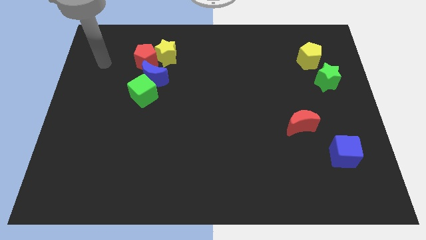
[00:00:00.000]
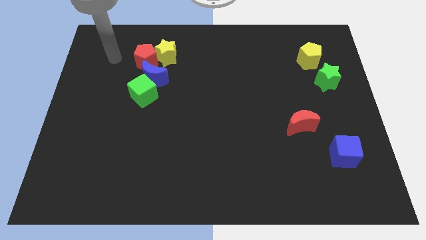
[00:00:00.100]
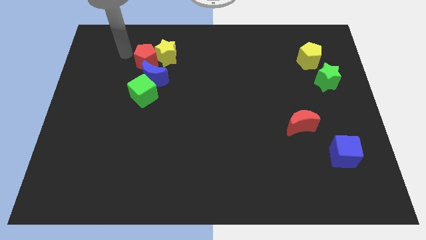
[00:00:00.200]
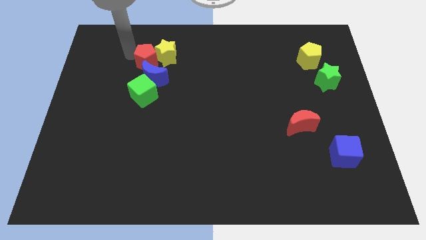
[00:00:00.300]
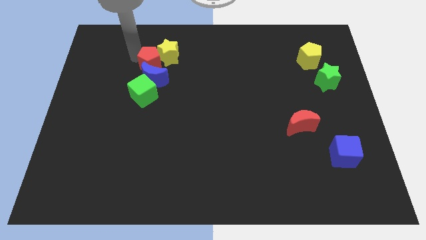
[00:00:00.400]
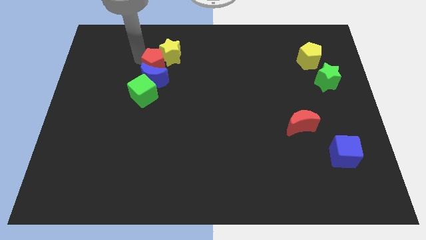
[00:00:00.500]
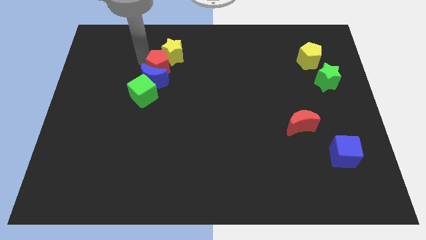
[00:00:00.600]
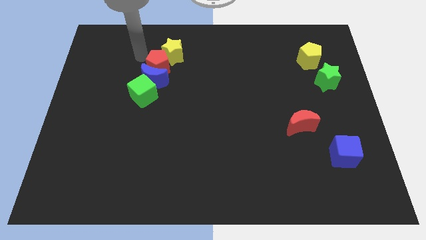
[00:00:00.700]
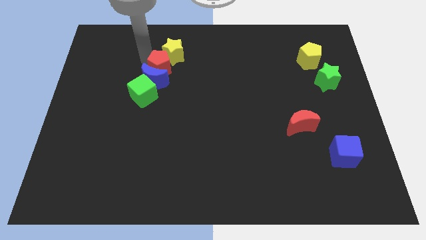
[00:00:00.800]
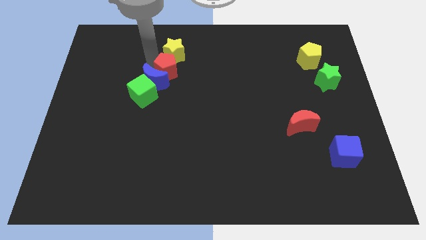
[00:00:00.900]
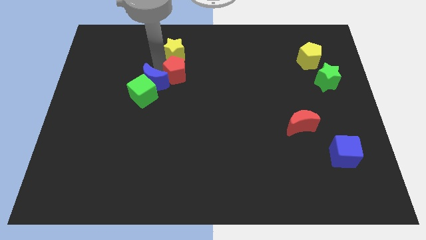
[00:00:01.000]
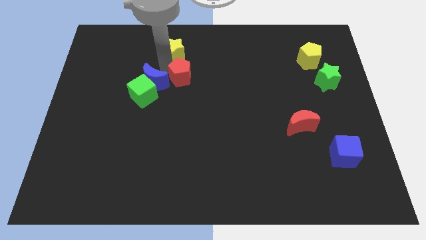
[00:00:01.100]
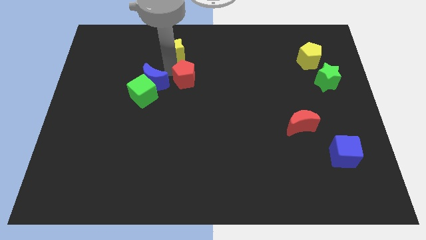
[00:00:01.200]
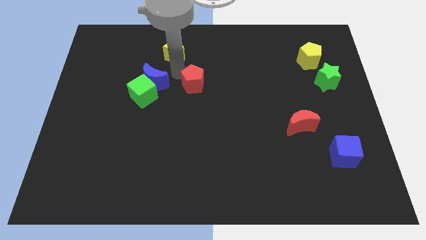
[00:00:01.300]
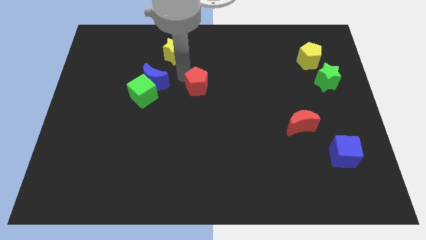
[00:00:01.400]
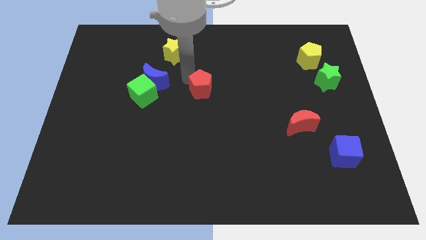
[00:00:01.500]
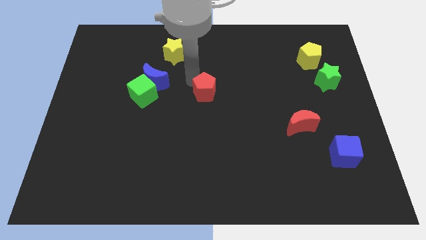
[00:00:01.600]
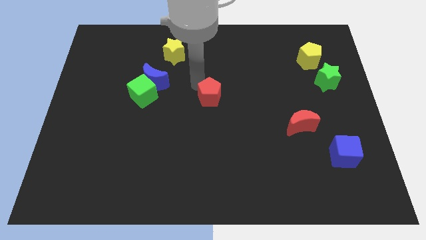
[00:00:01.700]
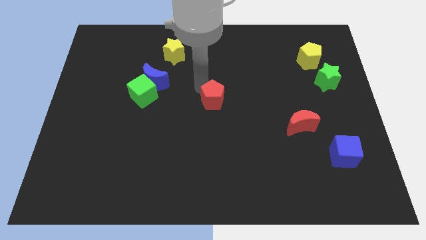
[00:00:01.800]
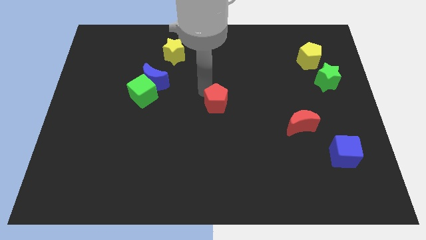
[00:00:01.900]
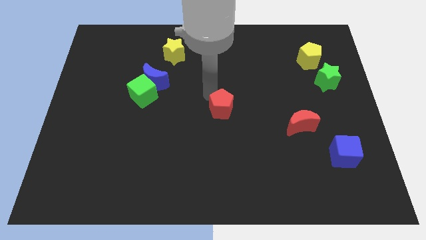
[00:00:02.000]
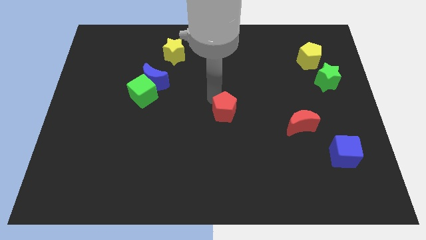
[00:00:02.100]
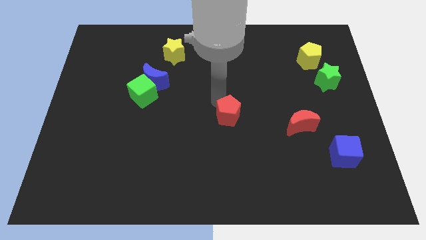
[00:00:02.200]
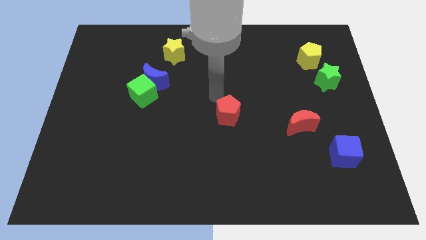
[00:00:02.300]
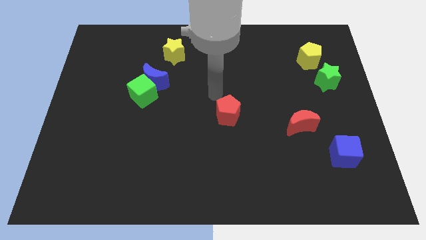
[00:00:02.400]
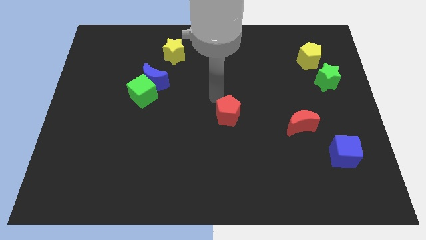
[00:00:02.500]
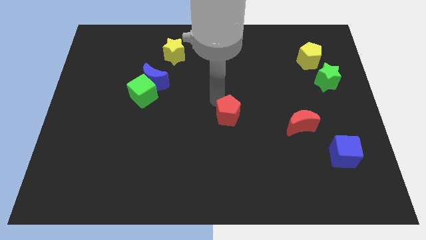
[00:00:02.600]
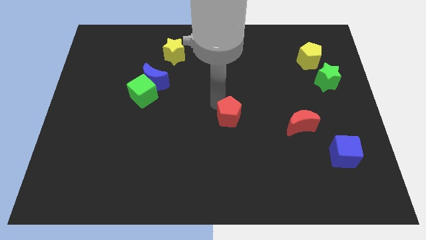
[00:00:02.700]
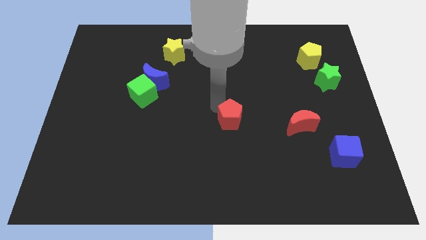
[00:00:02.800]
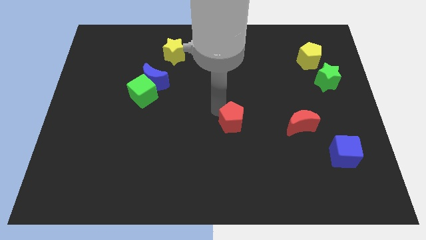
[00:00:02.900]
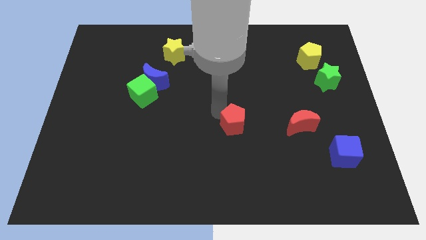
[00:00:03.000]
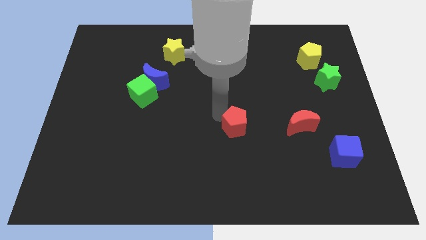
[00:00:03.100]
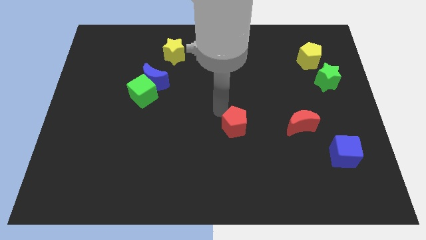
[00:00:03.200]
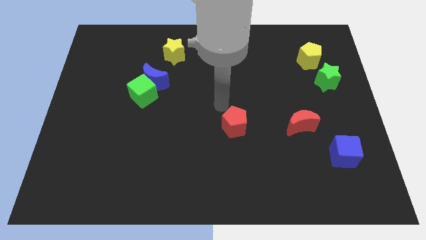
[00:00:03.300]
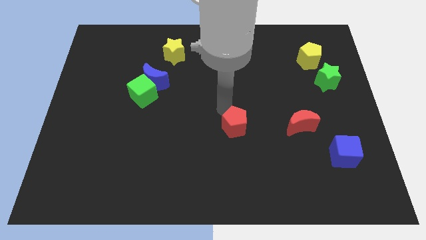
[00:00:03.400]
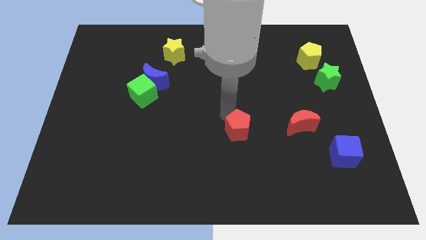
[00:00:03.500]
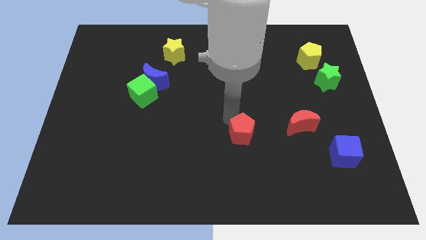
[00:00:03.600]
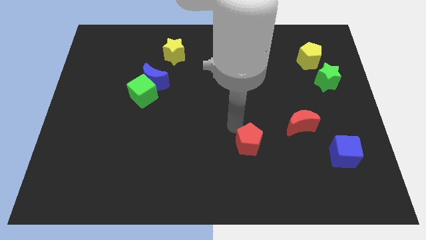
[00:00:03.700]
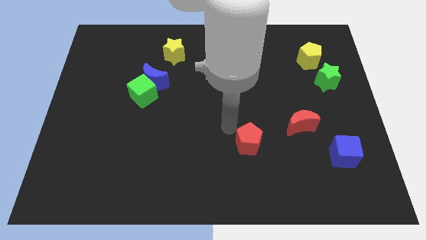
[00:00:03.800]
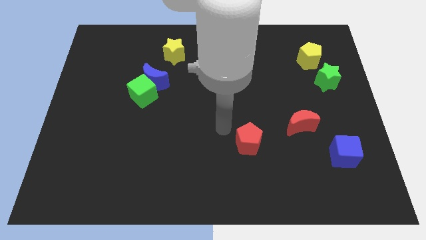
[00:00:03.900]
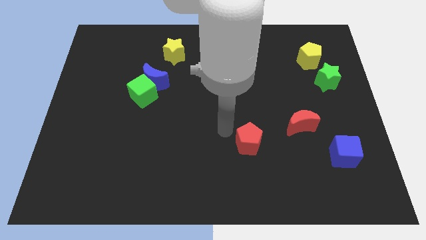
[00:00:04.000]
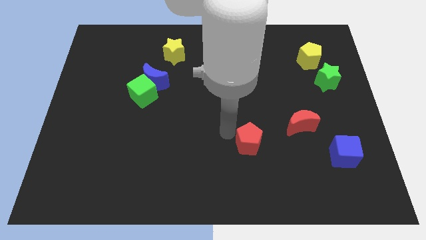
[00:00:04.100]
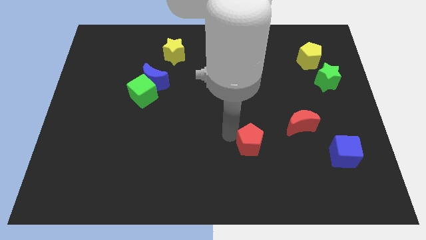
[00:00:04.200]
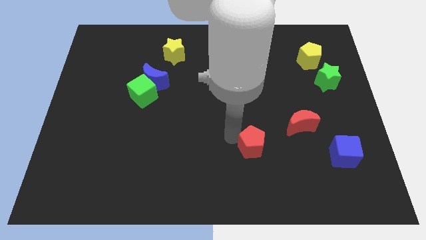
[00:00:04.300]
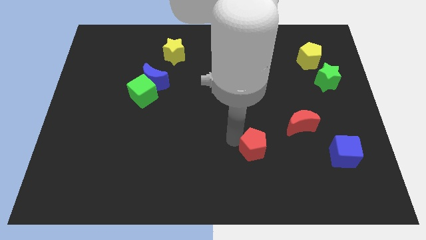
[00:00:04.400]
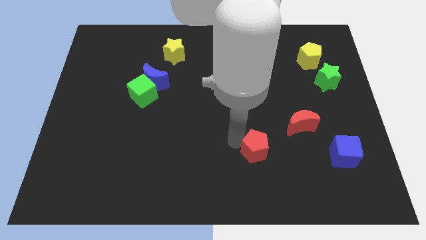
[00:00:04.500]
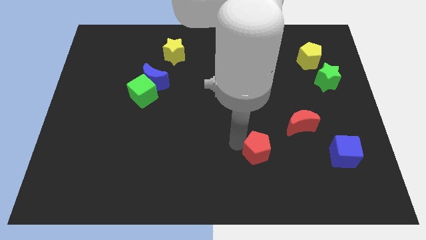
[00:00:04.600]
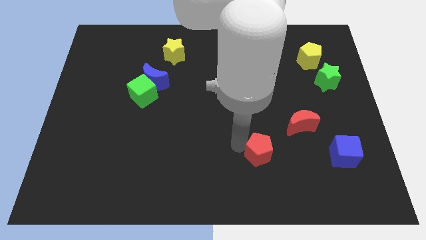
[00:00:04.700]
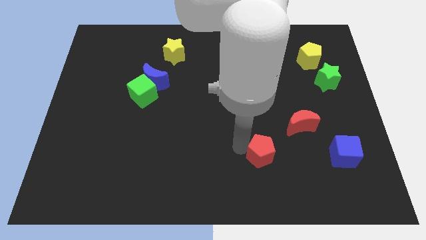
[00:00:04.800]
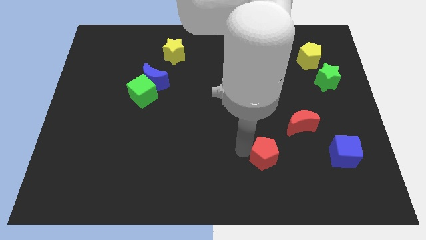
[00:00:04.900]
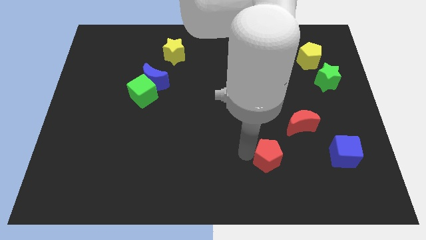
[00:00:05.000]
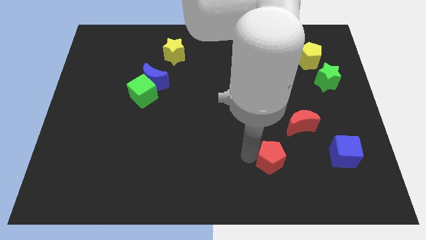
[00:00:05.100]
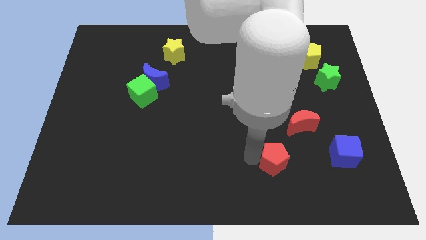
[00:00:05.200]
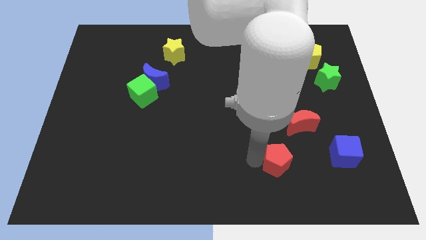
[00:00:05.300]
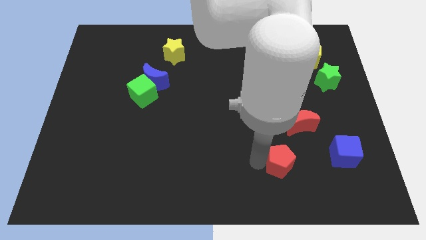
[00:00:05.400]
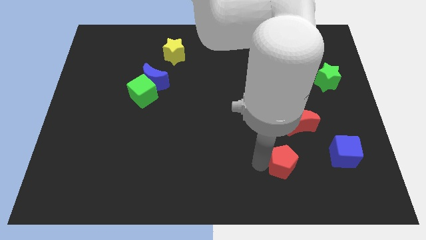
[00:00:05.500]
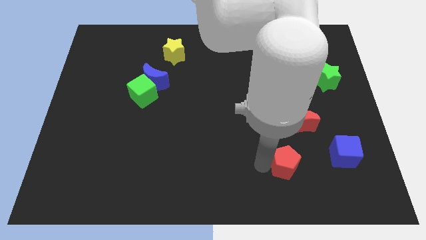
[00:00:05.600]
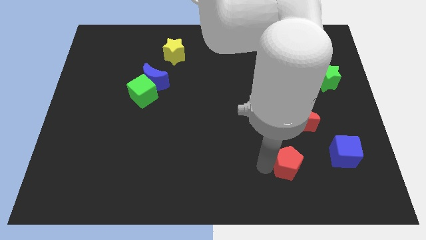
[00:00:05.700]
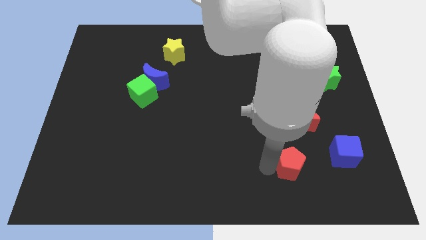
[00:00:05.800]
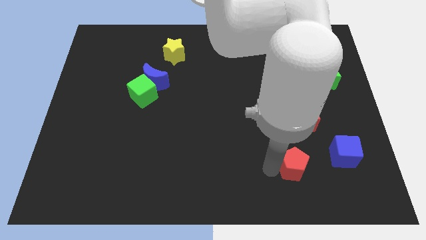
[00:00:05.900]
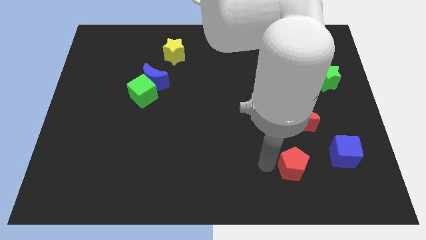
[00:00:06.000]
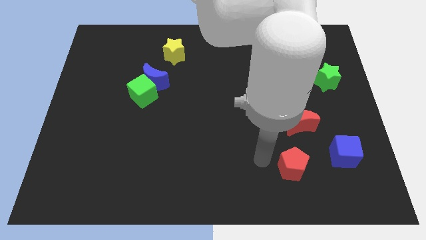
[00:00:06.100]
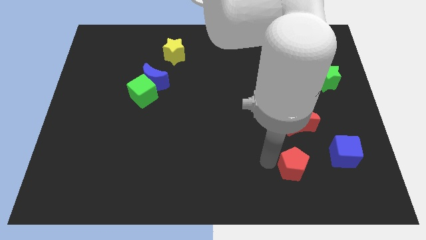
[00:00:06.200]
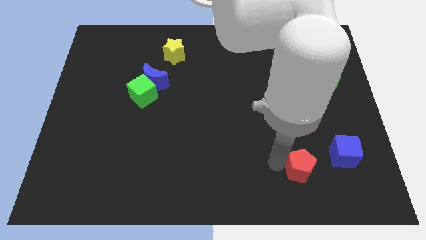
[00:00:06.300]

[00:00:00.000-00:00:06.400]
push the red pentagon to the bottom left of the blue cube

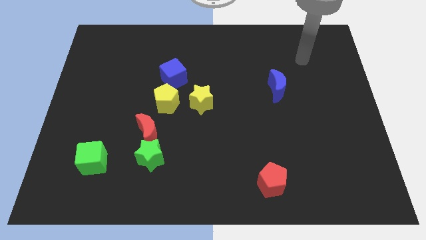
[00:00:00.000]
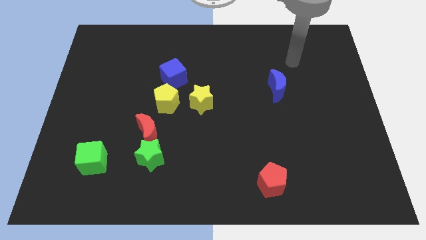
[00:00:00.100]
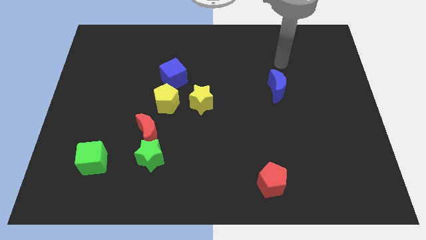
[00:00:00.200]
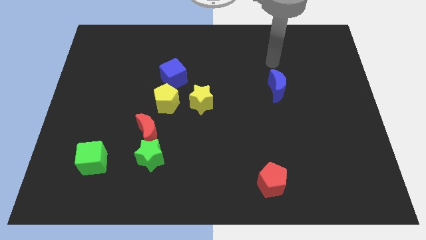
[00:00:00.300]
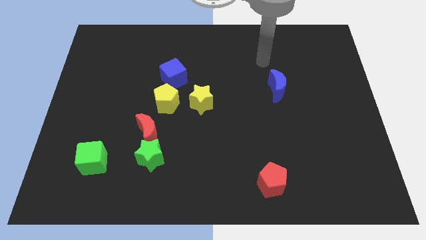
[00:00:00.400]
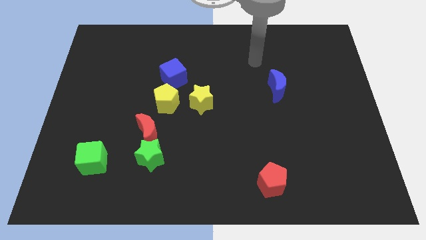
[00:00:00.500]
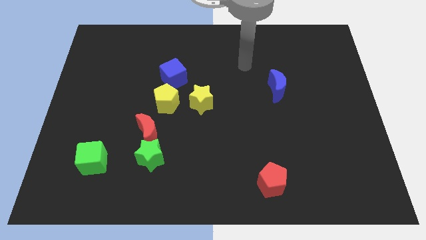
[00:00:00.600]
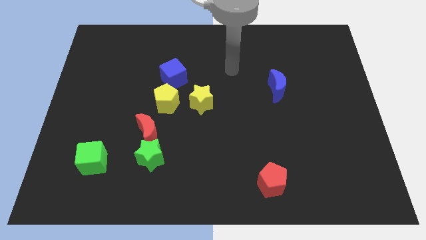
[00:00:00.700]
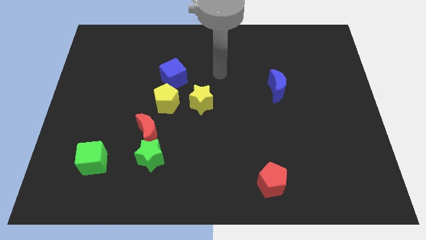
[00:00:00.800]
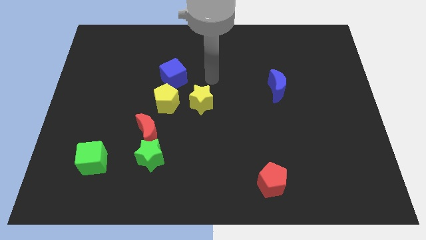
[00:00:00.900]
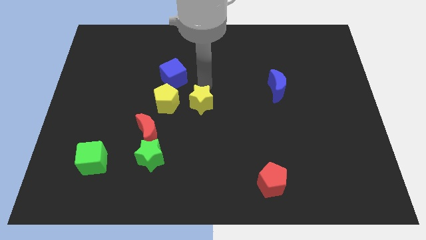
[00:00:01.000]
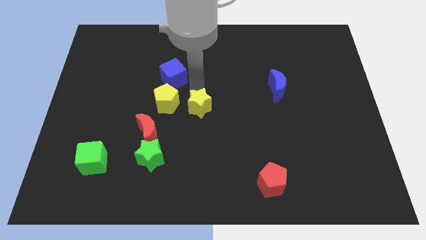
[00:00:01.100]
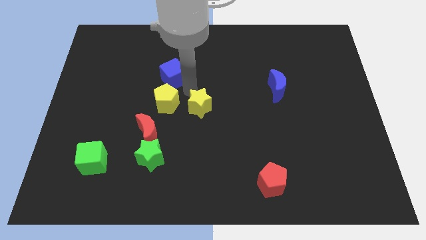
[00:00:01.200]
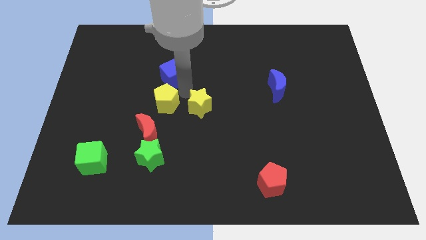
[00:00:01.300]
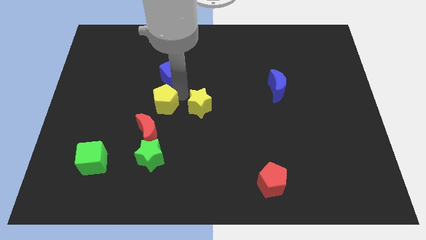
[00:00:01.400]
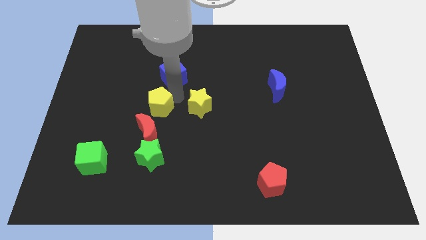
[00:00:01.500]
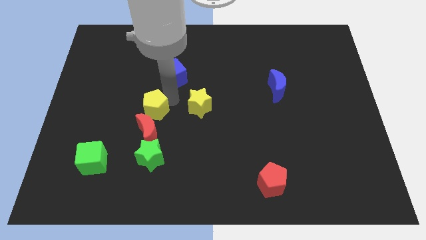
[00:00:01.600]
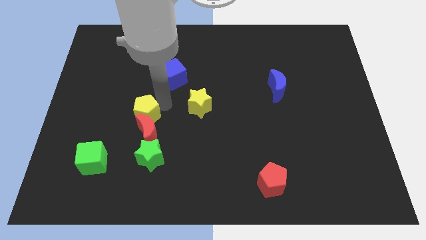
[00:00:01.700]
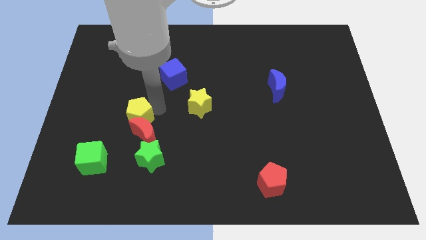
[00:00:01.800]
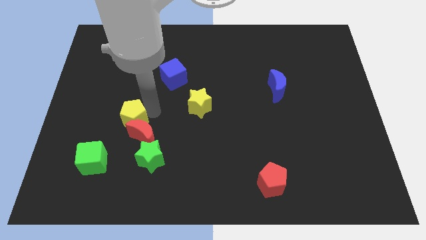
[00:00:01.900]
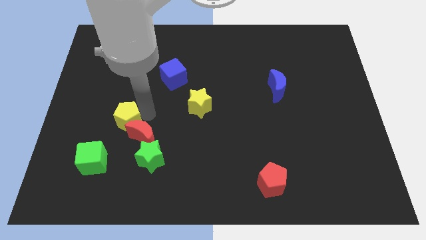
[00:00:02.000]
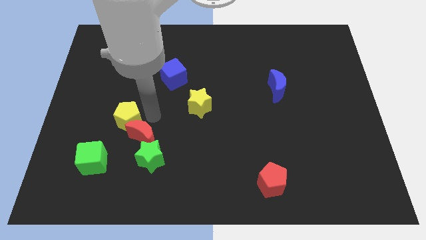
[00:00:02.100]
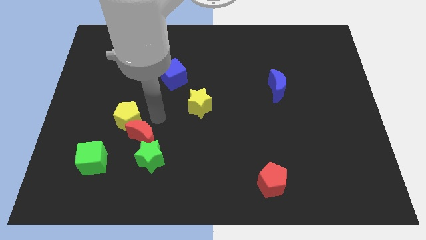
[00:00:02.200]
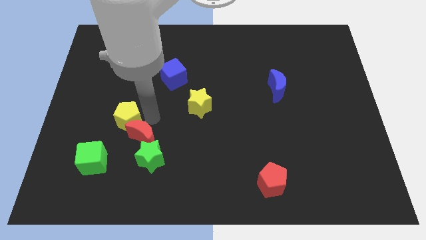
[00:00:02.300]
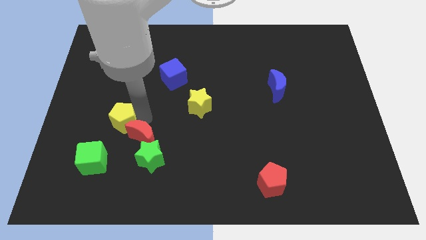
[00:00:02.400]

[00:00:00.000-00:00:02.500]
put the yellow pentagon to the top of the green cube
